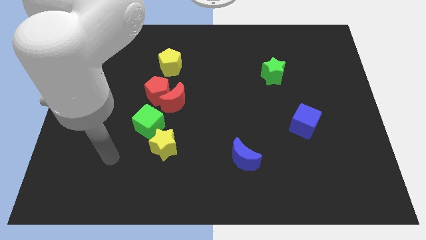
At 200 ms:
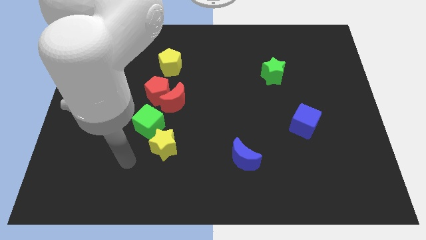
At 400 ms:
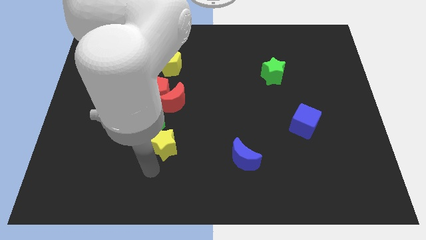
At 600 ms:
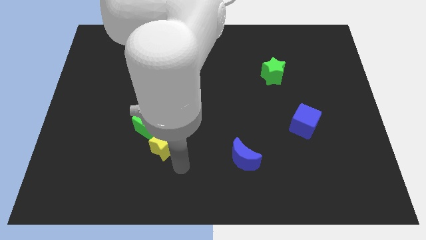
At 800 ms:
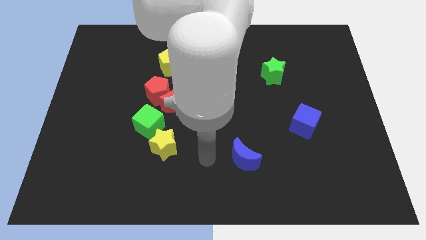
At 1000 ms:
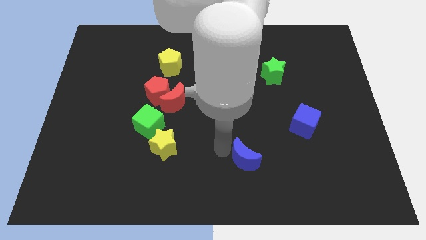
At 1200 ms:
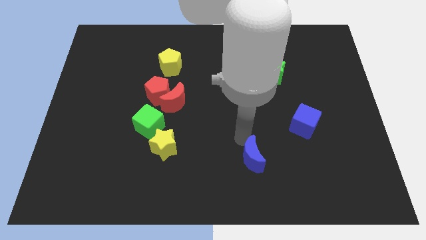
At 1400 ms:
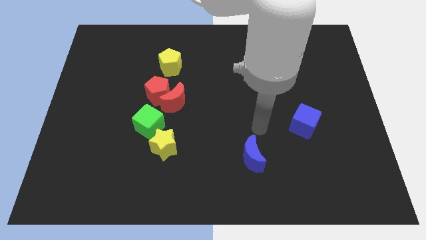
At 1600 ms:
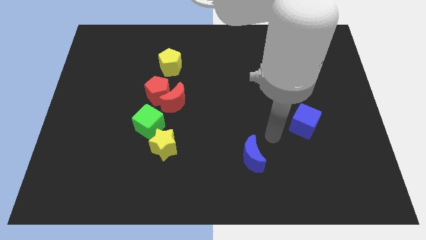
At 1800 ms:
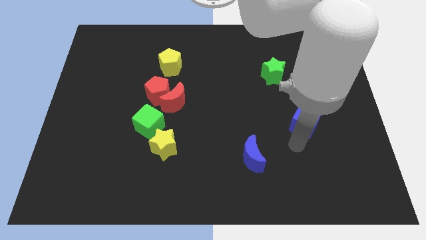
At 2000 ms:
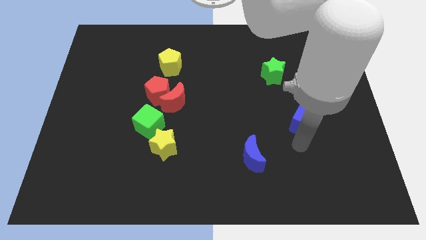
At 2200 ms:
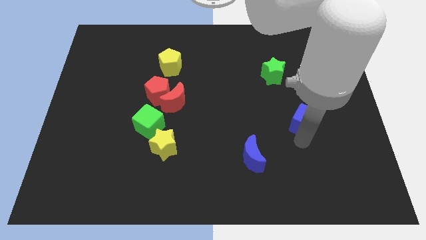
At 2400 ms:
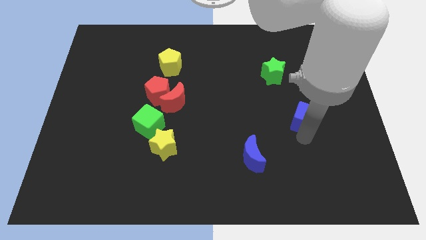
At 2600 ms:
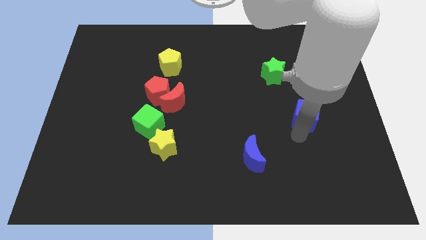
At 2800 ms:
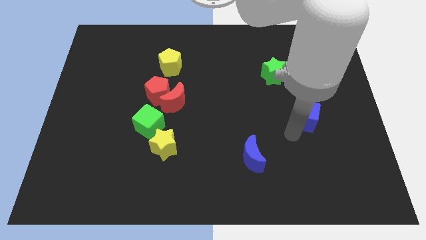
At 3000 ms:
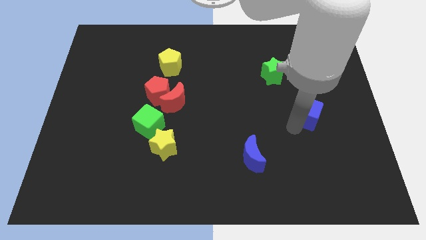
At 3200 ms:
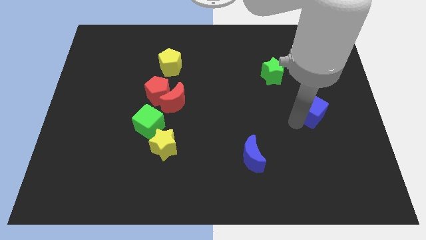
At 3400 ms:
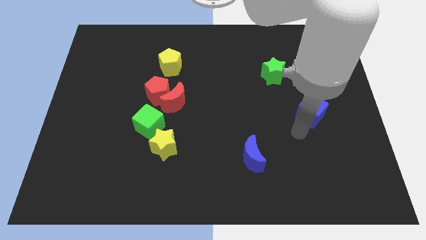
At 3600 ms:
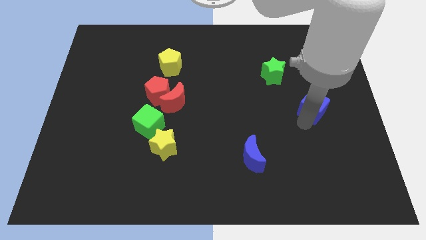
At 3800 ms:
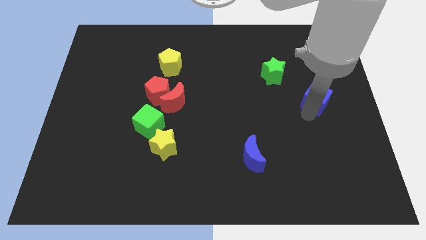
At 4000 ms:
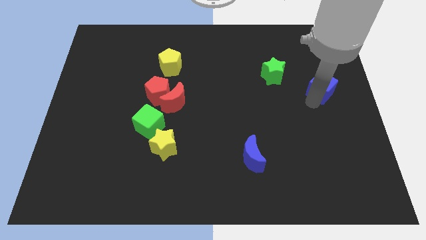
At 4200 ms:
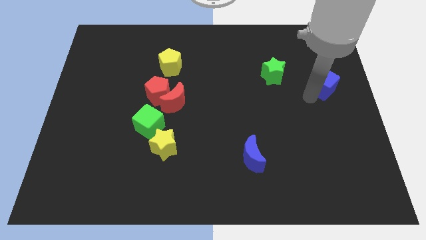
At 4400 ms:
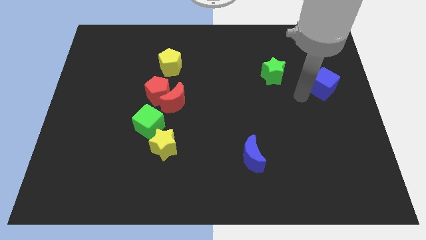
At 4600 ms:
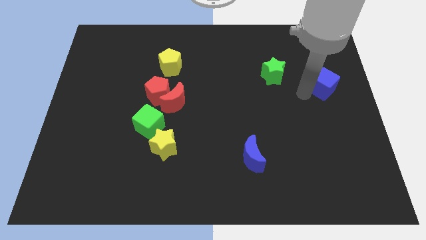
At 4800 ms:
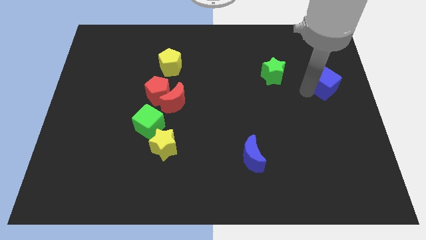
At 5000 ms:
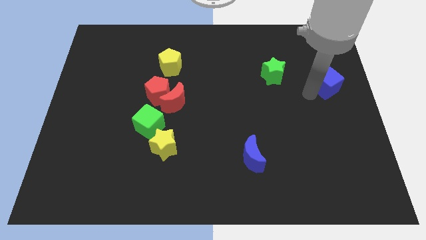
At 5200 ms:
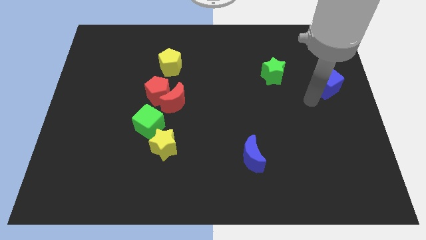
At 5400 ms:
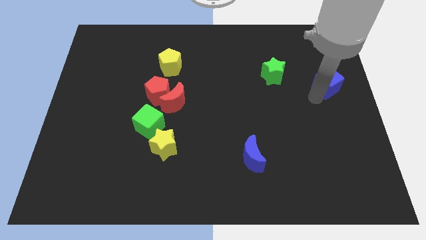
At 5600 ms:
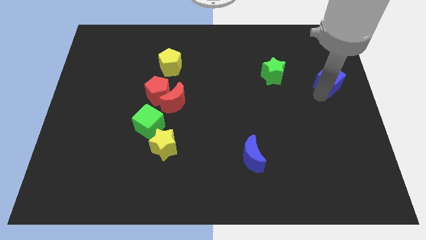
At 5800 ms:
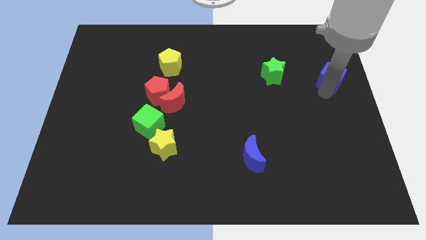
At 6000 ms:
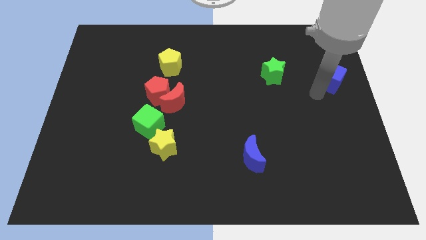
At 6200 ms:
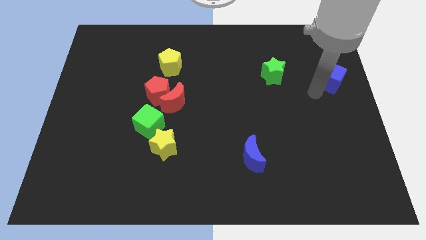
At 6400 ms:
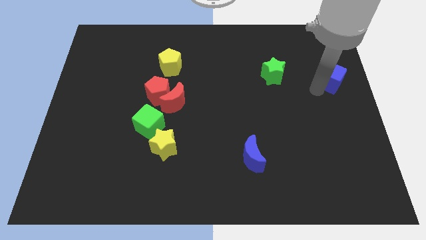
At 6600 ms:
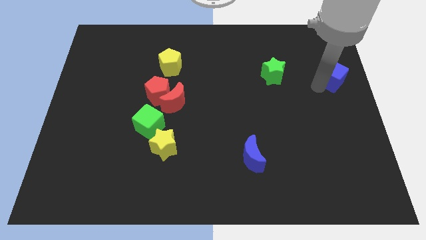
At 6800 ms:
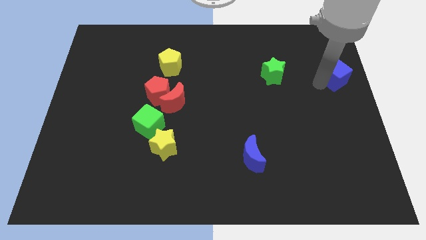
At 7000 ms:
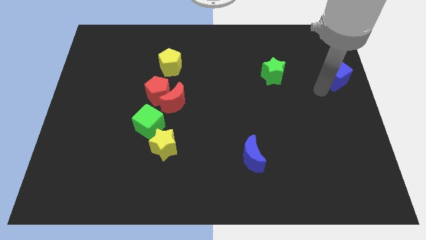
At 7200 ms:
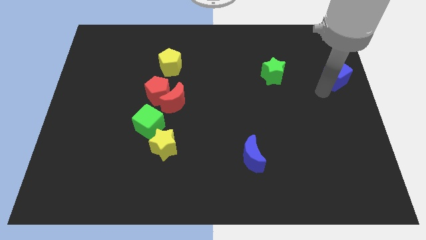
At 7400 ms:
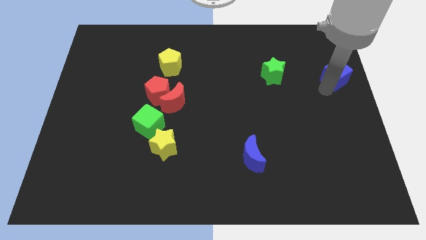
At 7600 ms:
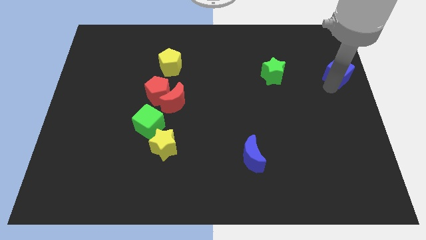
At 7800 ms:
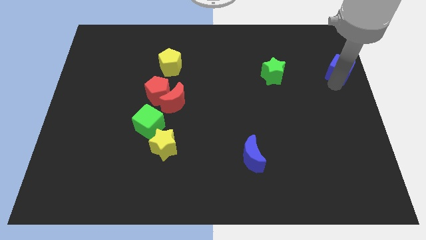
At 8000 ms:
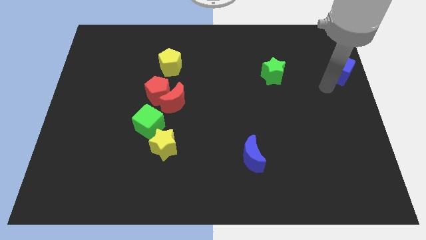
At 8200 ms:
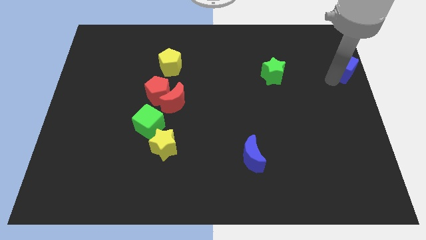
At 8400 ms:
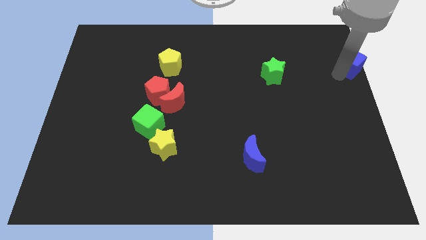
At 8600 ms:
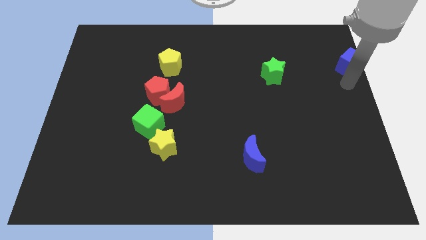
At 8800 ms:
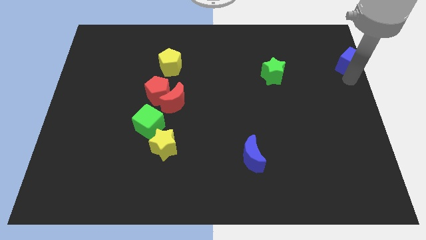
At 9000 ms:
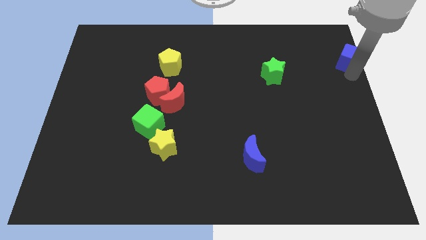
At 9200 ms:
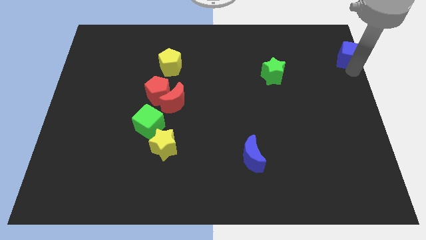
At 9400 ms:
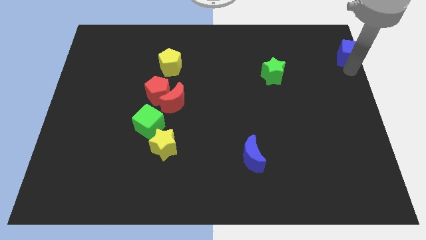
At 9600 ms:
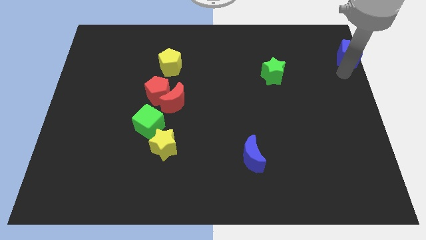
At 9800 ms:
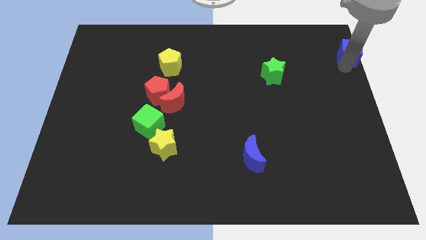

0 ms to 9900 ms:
put the blue cube to the top right corner

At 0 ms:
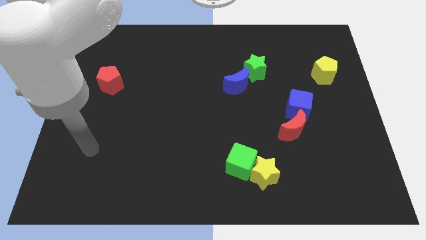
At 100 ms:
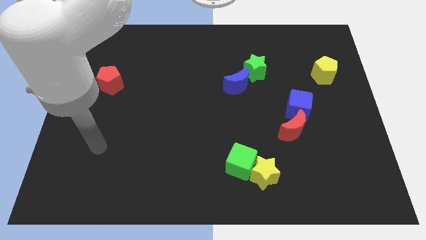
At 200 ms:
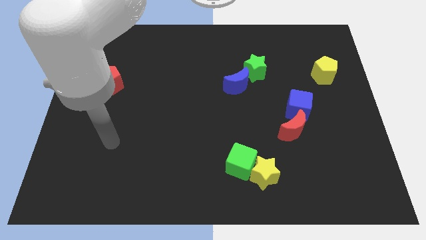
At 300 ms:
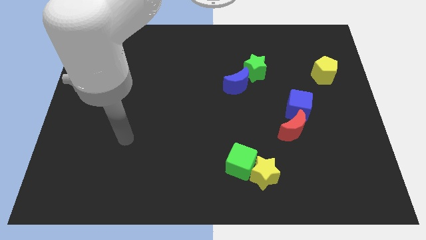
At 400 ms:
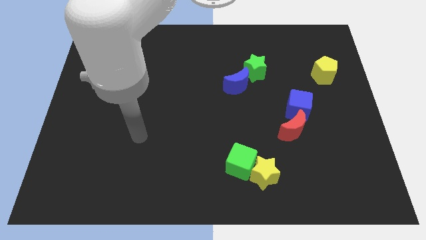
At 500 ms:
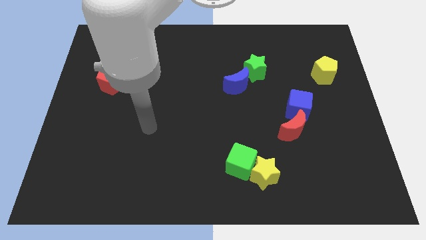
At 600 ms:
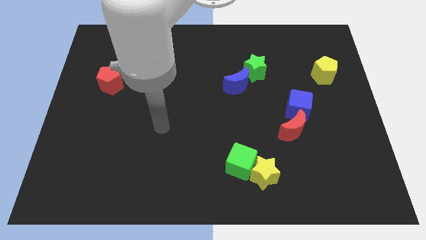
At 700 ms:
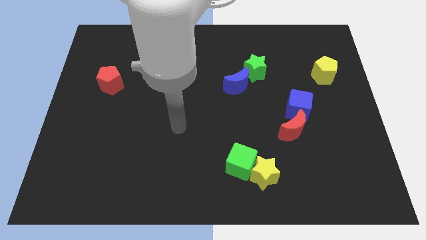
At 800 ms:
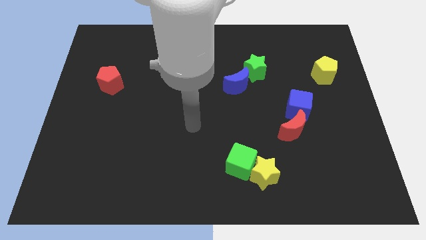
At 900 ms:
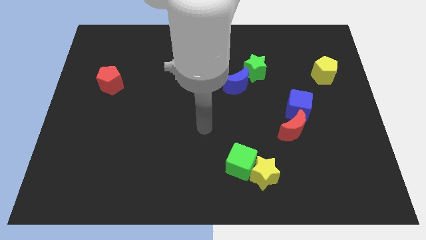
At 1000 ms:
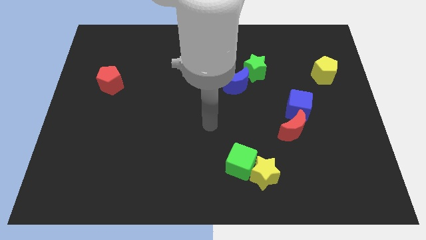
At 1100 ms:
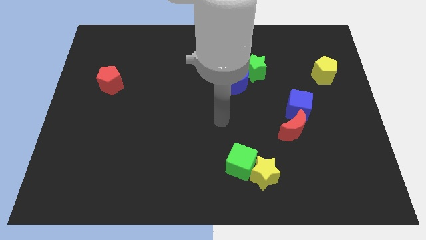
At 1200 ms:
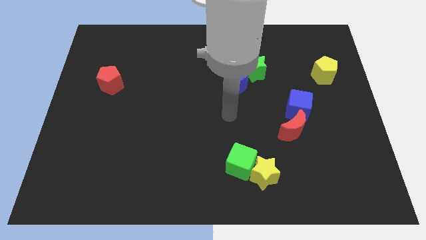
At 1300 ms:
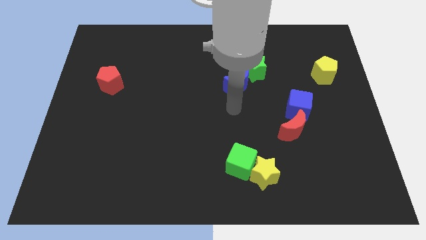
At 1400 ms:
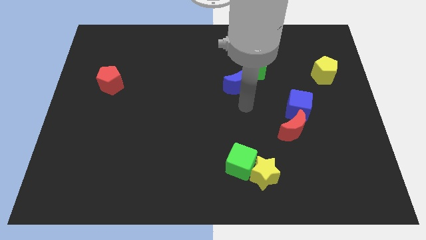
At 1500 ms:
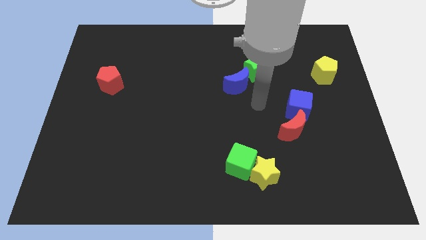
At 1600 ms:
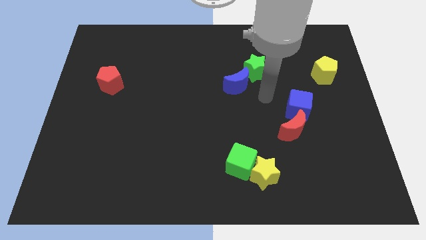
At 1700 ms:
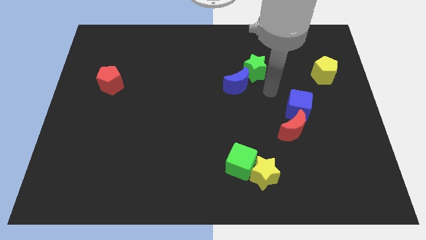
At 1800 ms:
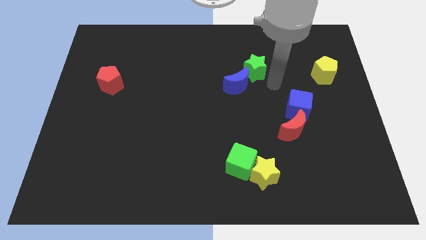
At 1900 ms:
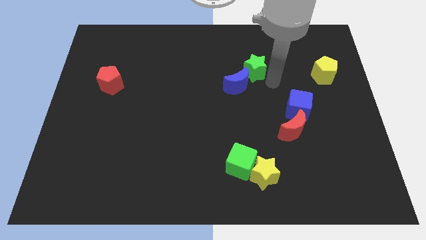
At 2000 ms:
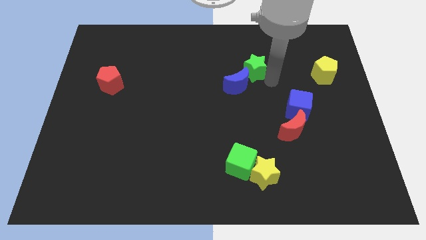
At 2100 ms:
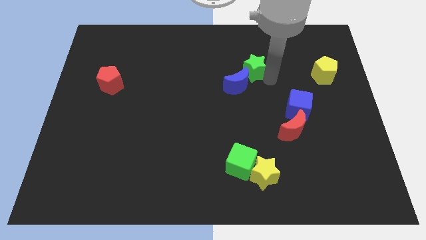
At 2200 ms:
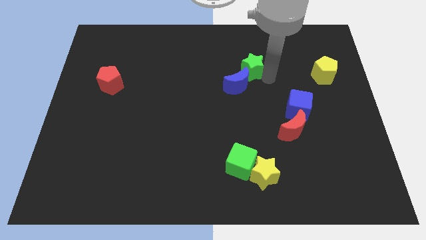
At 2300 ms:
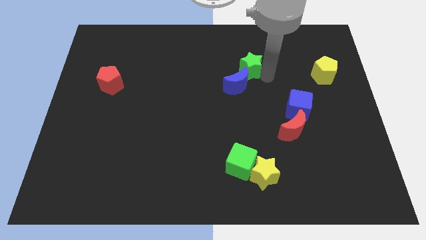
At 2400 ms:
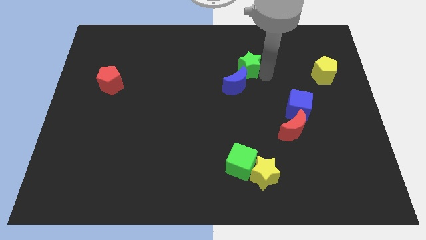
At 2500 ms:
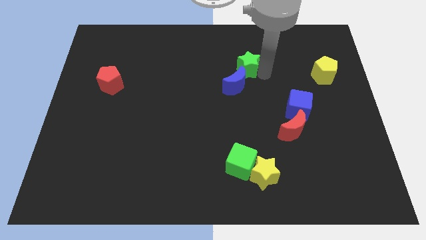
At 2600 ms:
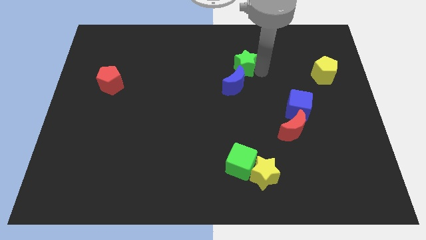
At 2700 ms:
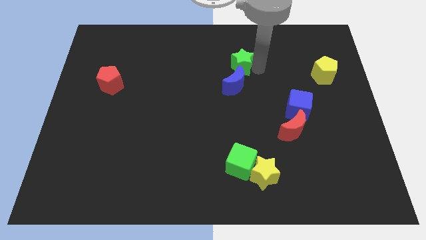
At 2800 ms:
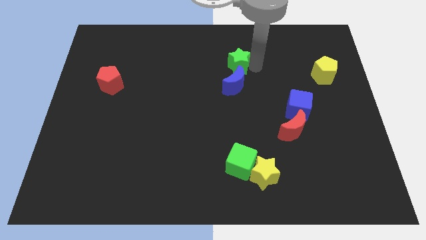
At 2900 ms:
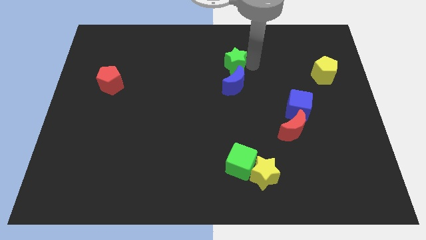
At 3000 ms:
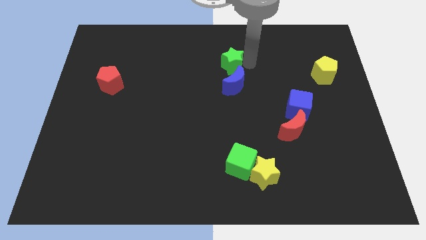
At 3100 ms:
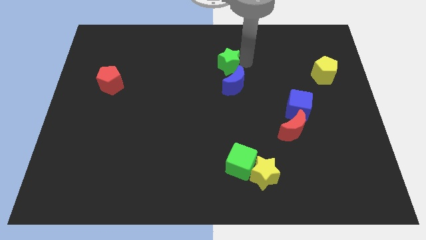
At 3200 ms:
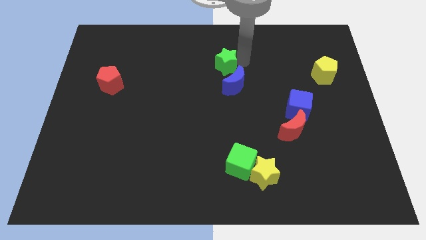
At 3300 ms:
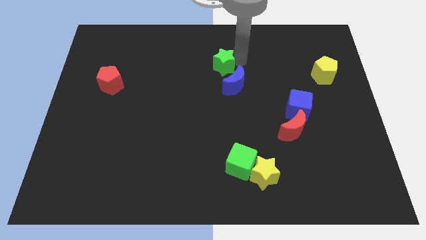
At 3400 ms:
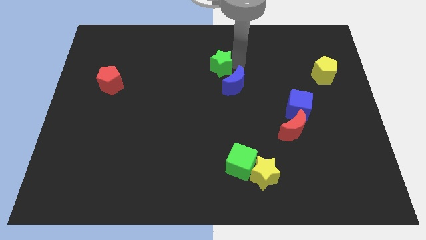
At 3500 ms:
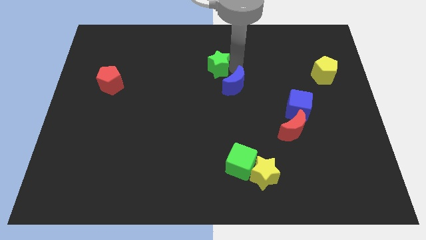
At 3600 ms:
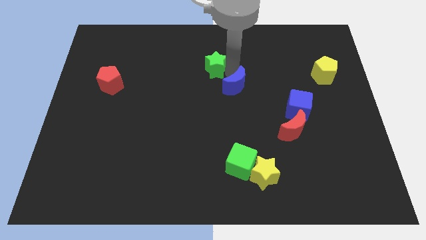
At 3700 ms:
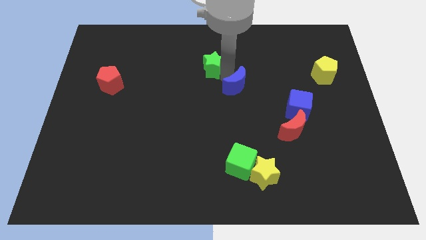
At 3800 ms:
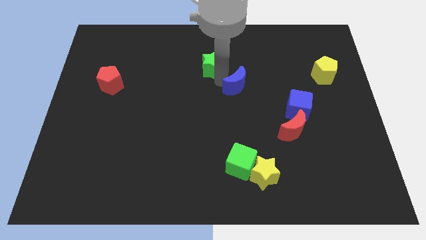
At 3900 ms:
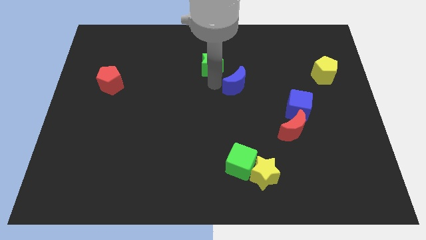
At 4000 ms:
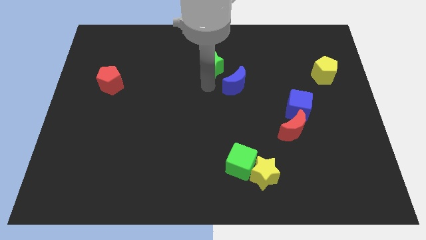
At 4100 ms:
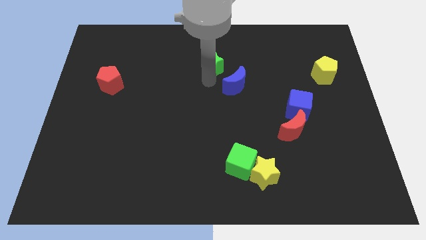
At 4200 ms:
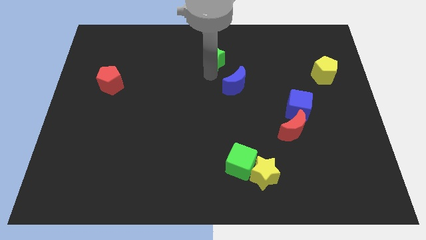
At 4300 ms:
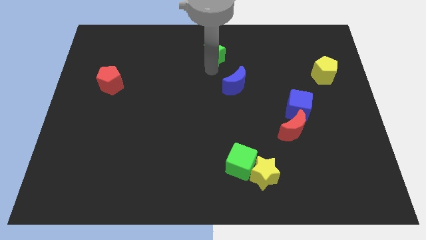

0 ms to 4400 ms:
put the green star to the towards your base
